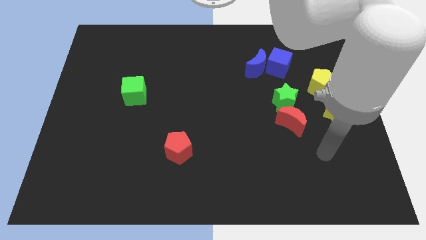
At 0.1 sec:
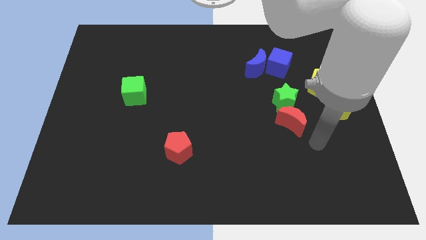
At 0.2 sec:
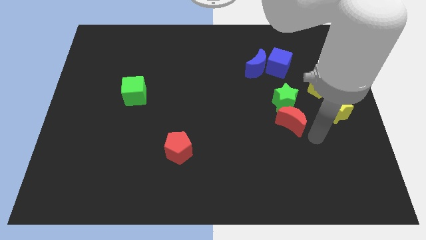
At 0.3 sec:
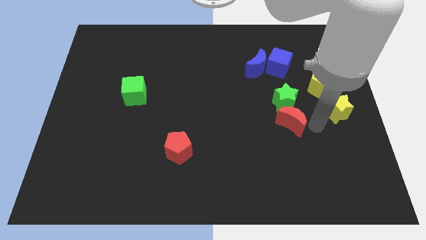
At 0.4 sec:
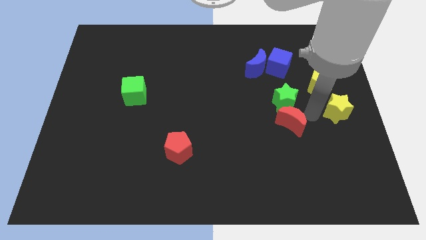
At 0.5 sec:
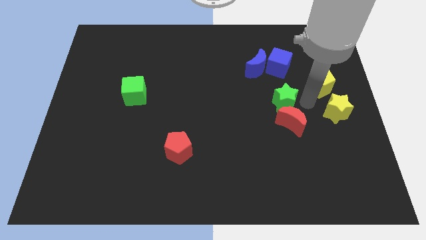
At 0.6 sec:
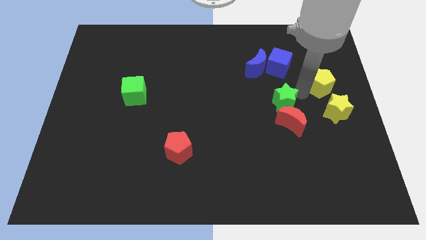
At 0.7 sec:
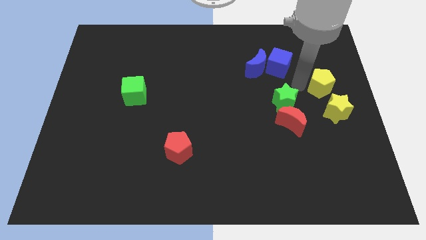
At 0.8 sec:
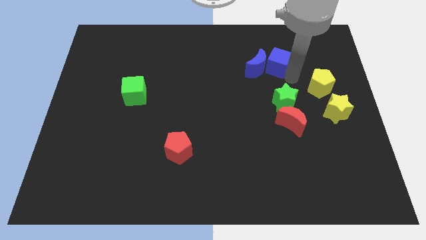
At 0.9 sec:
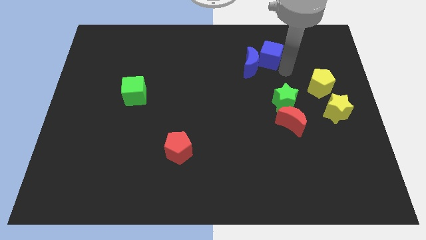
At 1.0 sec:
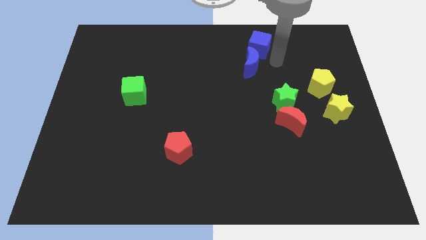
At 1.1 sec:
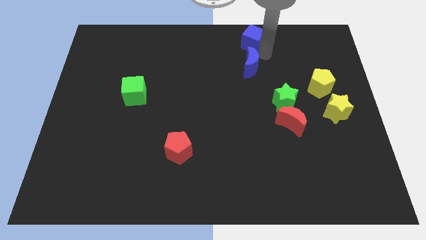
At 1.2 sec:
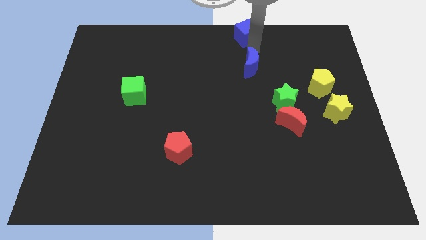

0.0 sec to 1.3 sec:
separate the blue moon from the blue cube

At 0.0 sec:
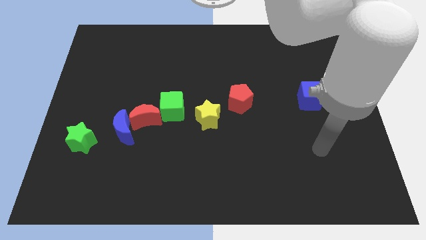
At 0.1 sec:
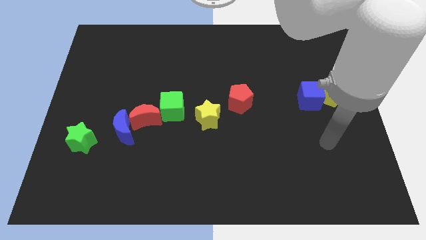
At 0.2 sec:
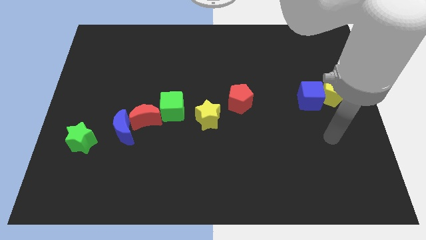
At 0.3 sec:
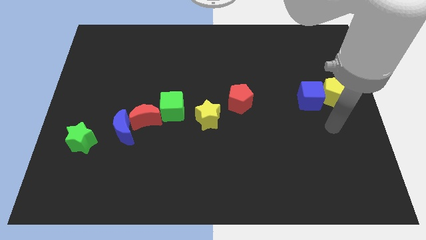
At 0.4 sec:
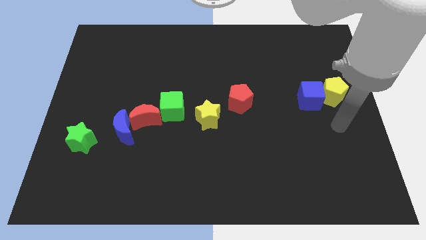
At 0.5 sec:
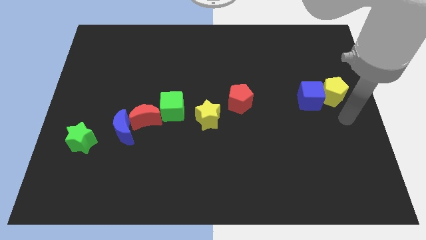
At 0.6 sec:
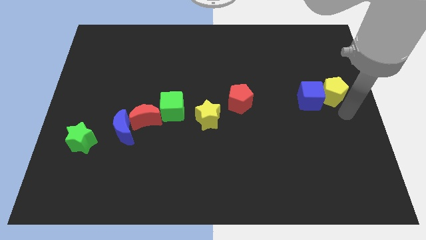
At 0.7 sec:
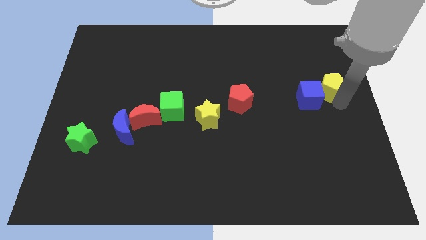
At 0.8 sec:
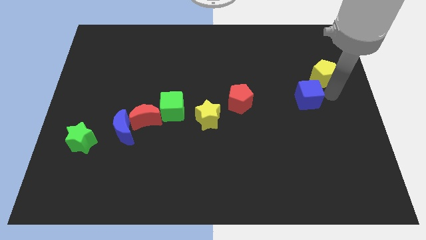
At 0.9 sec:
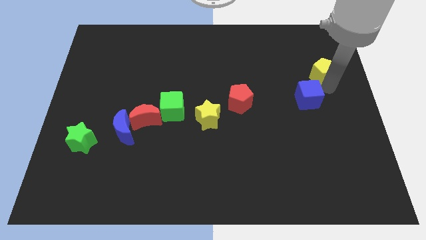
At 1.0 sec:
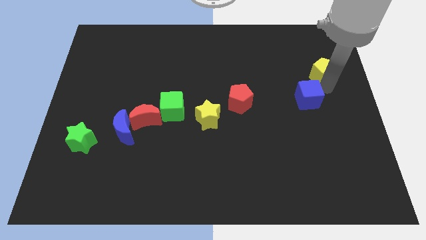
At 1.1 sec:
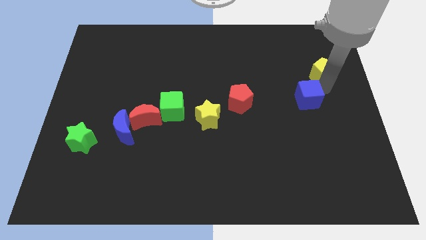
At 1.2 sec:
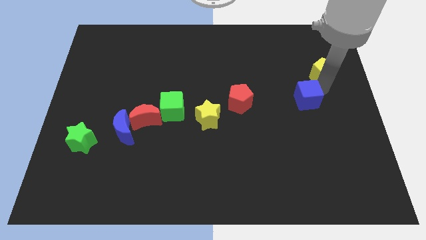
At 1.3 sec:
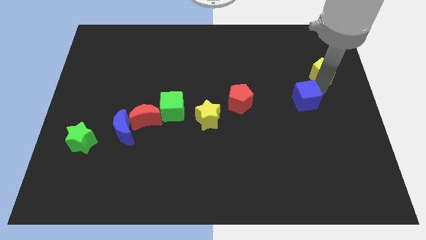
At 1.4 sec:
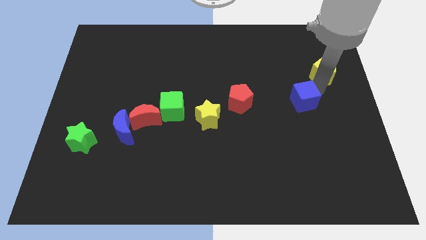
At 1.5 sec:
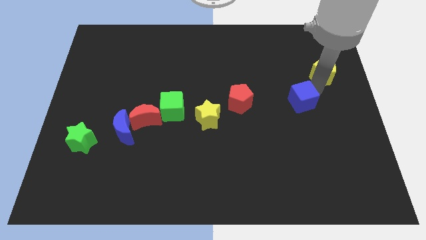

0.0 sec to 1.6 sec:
separate the blue cube from the yellow pentagon

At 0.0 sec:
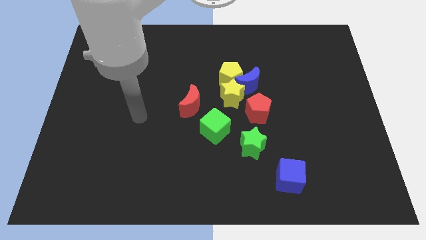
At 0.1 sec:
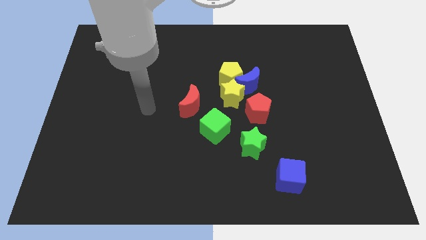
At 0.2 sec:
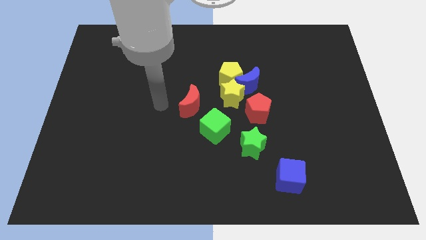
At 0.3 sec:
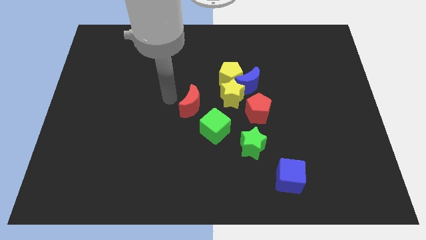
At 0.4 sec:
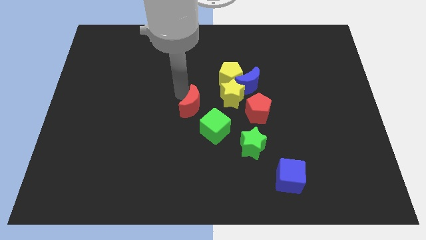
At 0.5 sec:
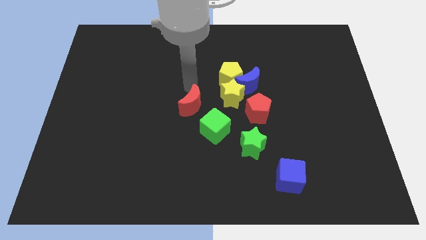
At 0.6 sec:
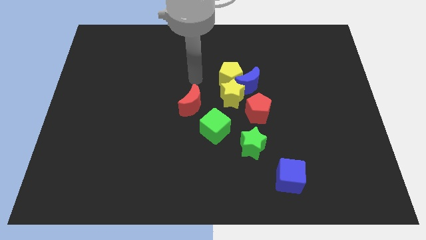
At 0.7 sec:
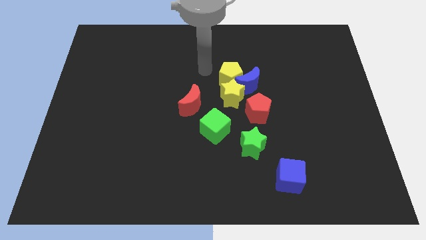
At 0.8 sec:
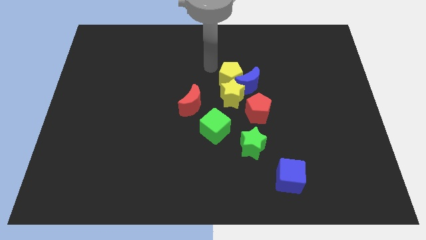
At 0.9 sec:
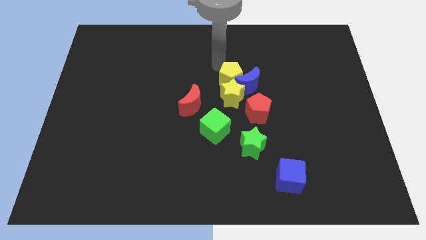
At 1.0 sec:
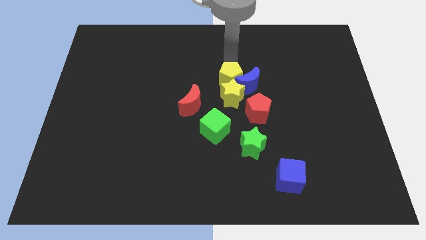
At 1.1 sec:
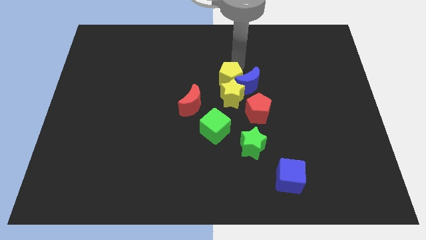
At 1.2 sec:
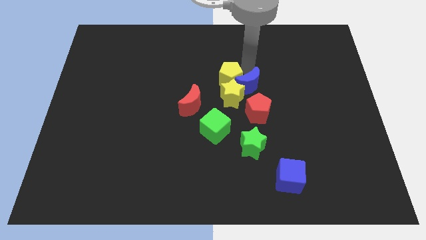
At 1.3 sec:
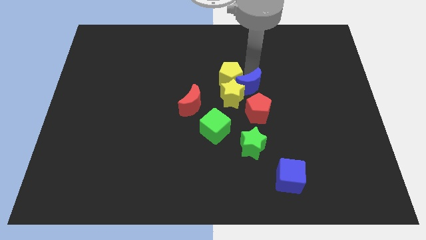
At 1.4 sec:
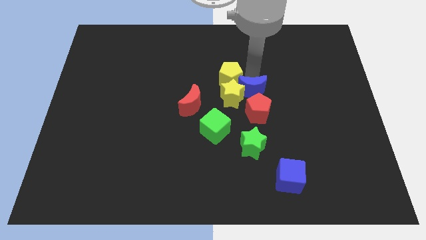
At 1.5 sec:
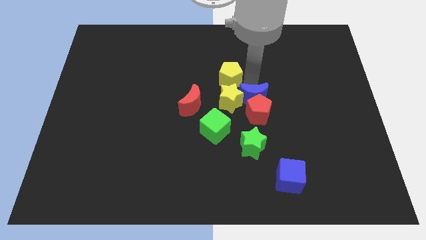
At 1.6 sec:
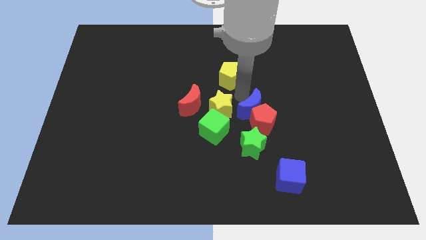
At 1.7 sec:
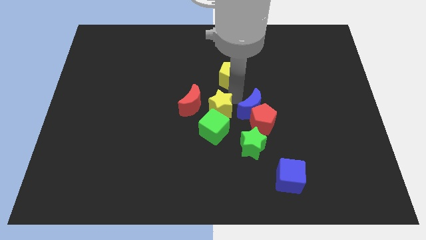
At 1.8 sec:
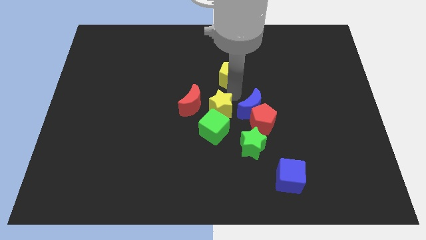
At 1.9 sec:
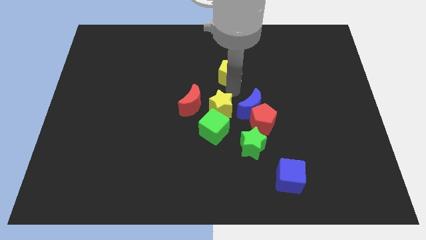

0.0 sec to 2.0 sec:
pull the yellow pentagon apart from the blue moon and yellow star

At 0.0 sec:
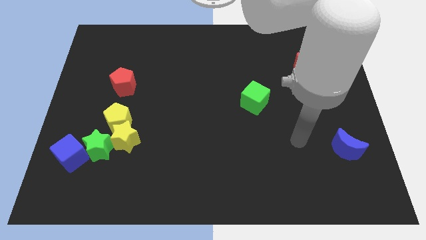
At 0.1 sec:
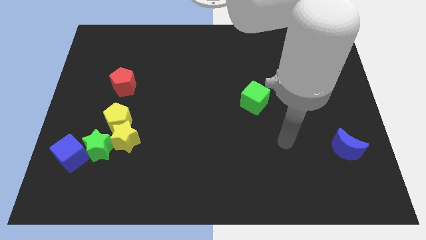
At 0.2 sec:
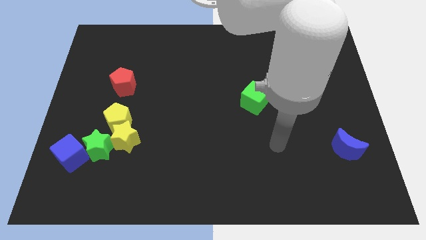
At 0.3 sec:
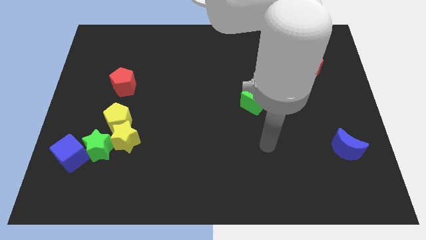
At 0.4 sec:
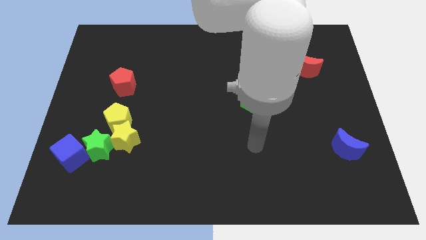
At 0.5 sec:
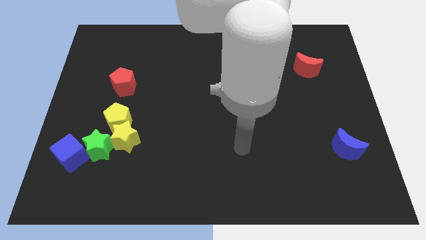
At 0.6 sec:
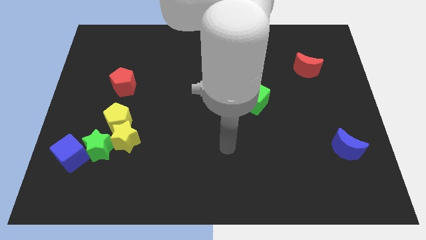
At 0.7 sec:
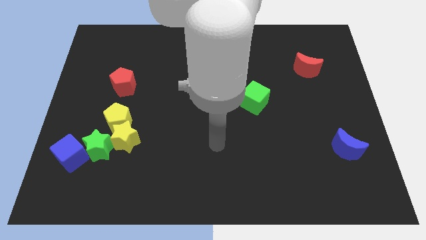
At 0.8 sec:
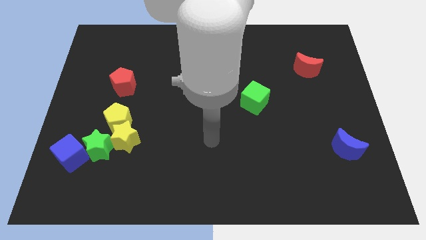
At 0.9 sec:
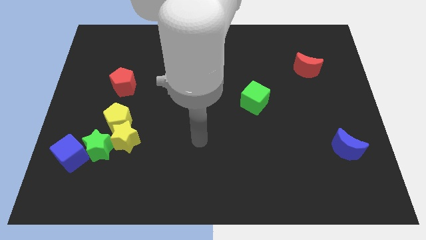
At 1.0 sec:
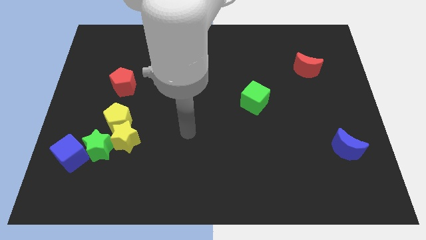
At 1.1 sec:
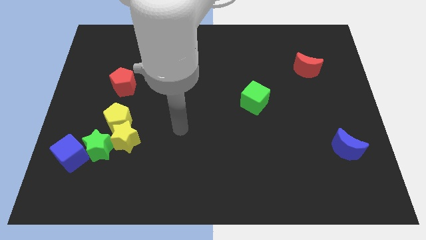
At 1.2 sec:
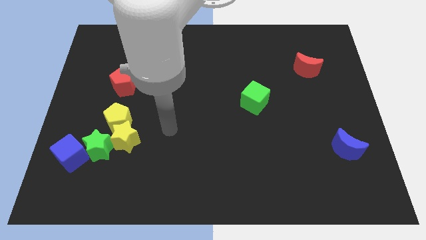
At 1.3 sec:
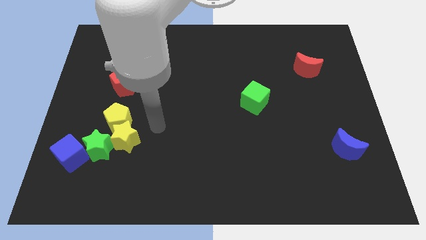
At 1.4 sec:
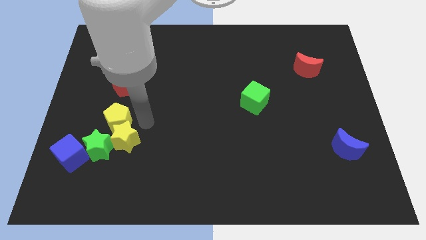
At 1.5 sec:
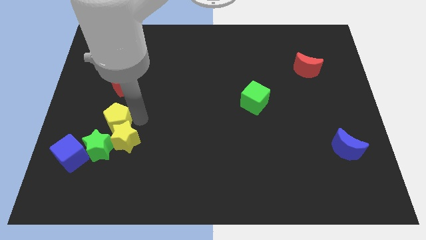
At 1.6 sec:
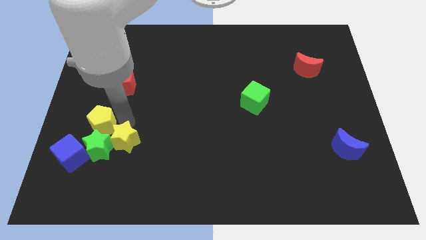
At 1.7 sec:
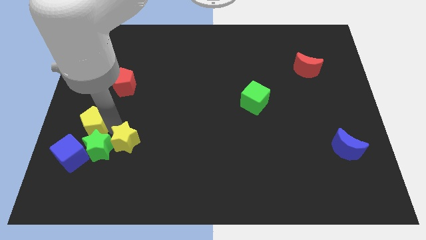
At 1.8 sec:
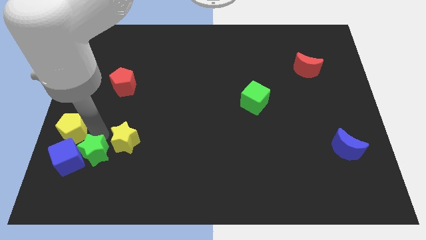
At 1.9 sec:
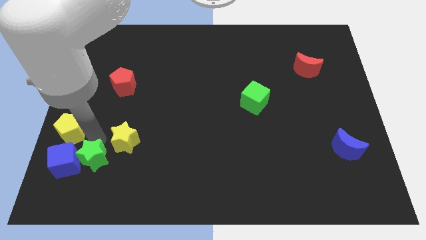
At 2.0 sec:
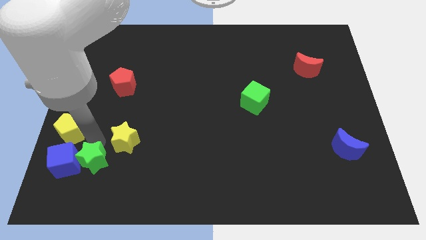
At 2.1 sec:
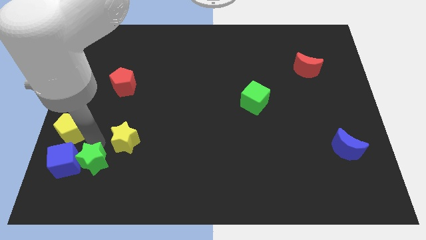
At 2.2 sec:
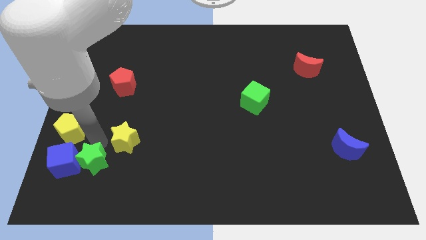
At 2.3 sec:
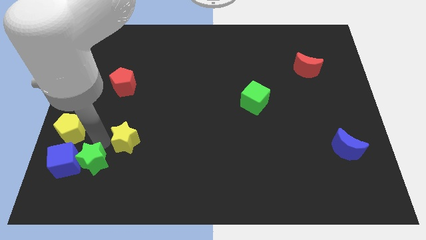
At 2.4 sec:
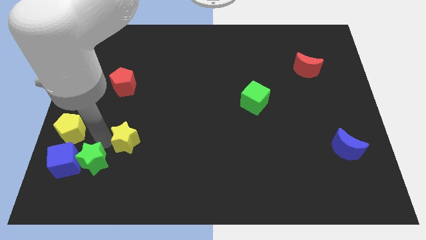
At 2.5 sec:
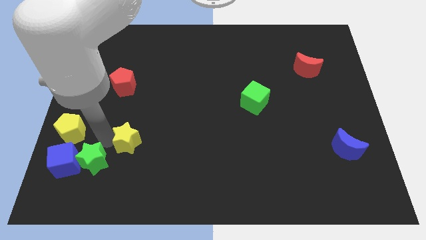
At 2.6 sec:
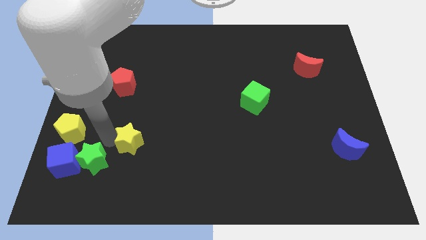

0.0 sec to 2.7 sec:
move the yellow star away from the yellow pentagon and green star

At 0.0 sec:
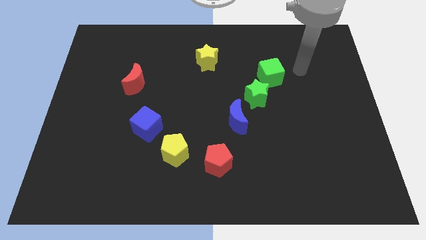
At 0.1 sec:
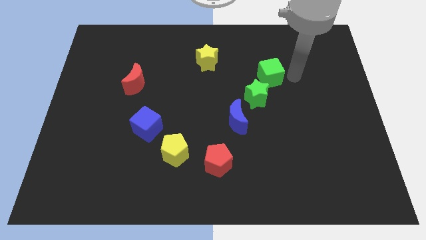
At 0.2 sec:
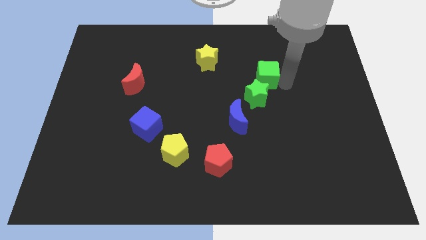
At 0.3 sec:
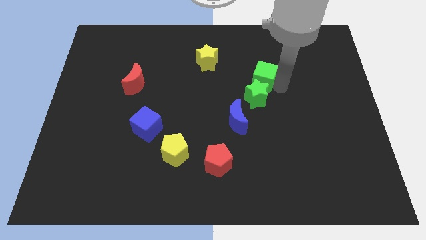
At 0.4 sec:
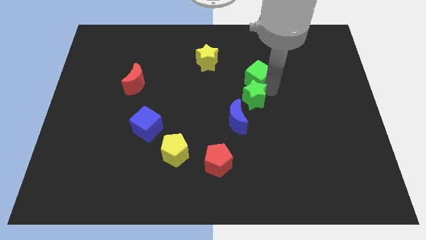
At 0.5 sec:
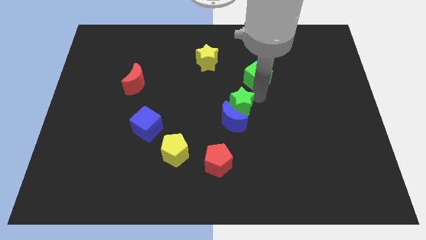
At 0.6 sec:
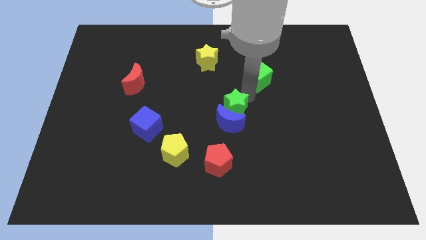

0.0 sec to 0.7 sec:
separate the green cube from the green star

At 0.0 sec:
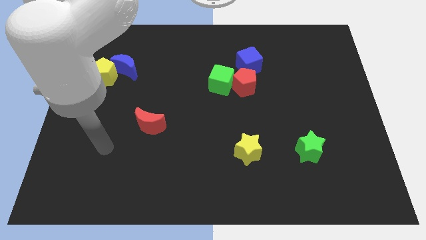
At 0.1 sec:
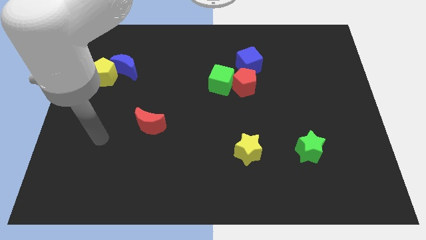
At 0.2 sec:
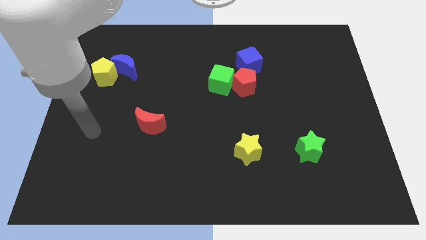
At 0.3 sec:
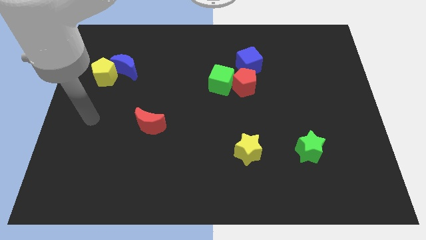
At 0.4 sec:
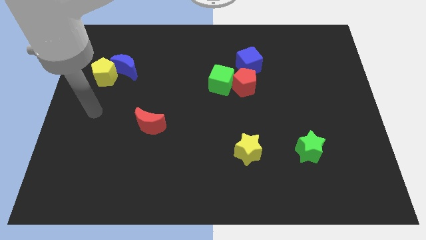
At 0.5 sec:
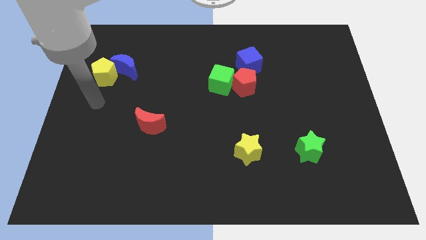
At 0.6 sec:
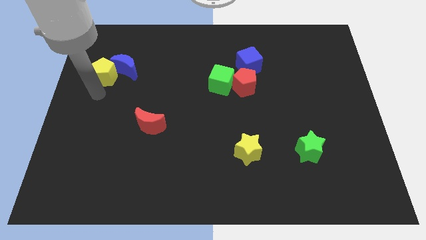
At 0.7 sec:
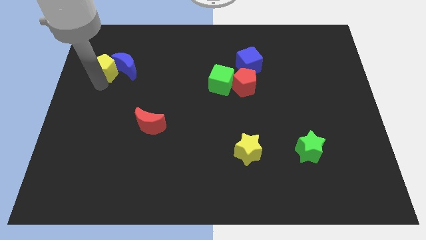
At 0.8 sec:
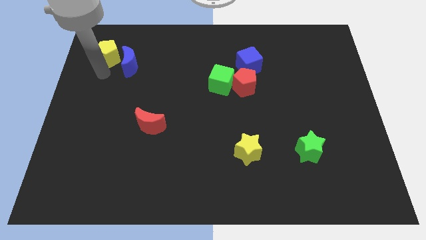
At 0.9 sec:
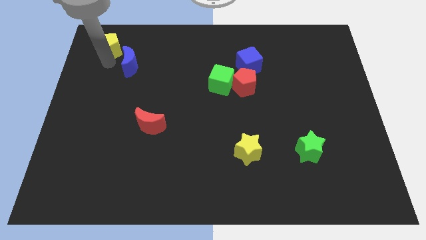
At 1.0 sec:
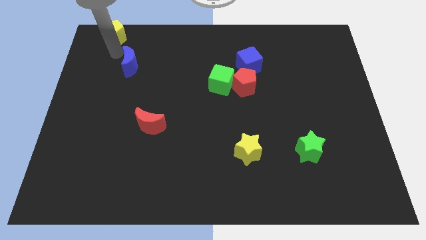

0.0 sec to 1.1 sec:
move the blue moon away from the yellow pentagon
